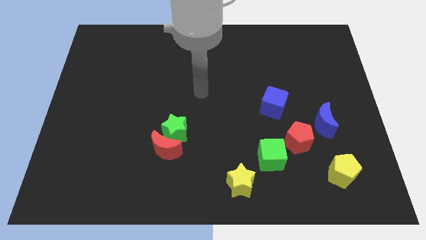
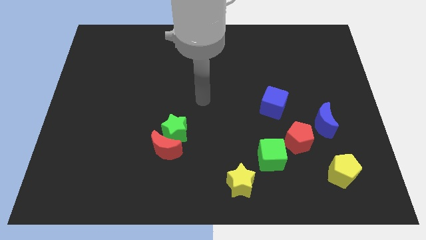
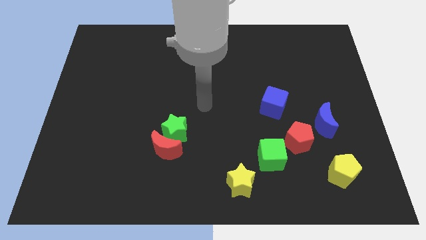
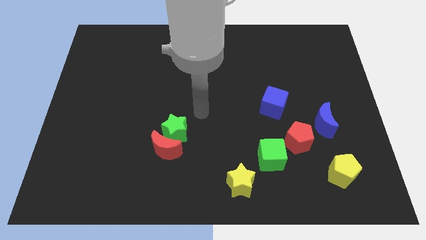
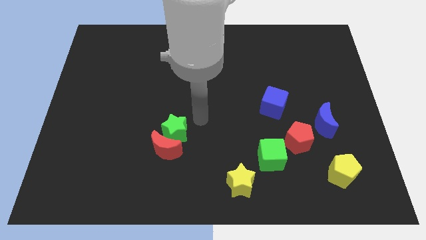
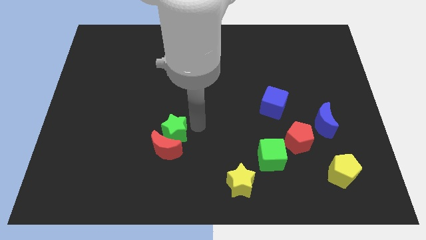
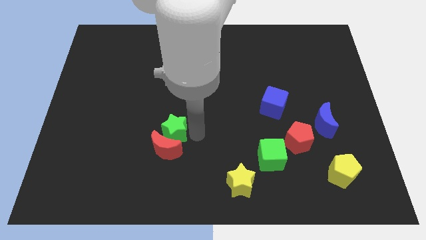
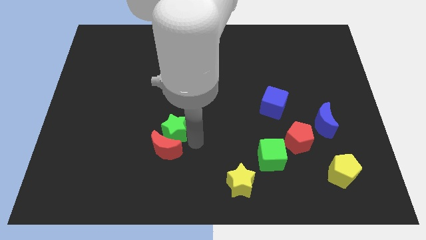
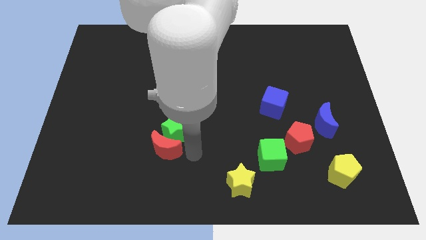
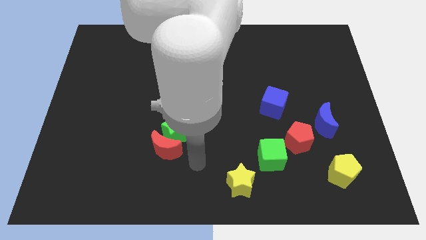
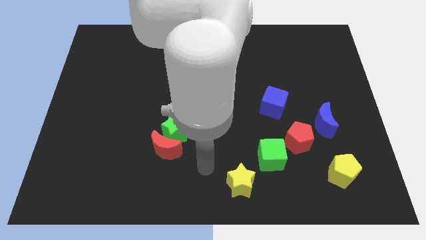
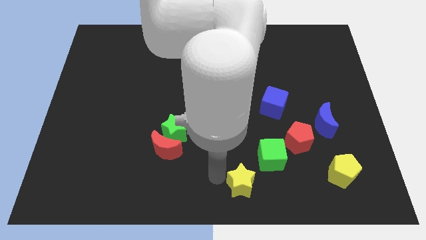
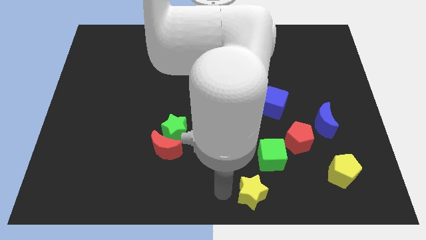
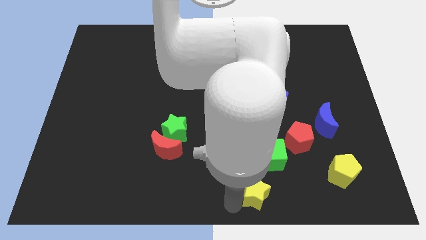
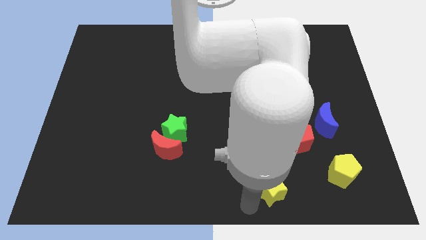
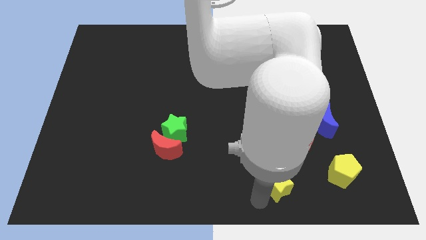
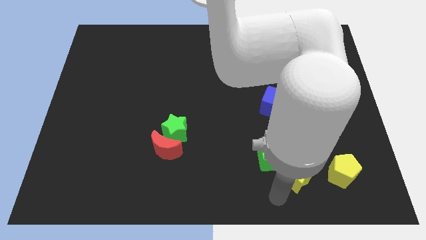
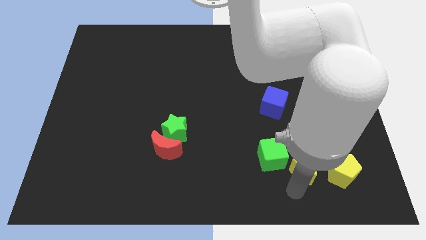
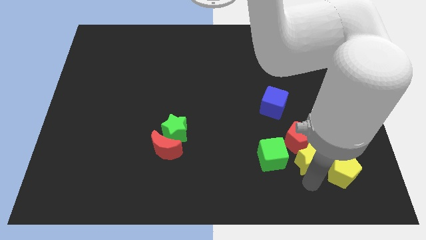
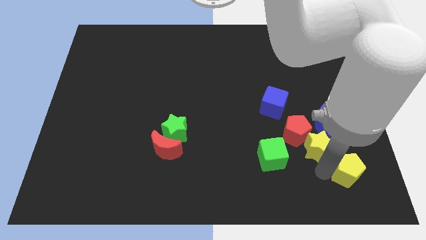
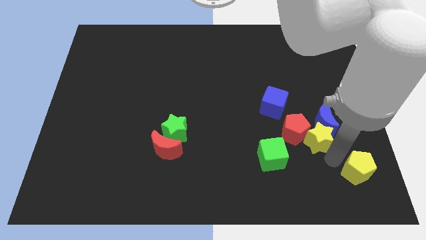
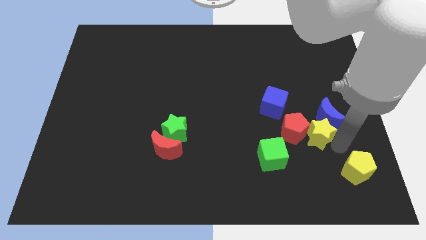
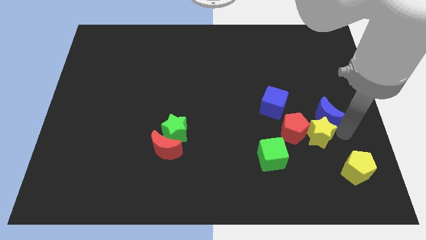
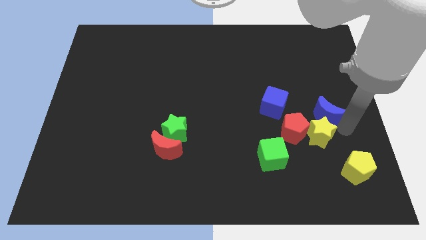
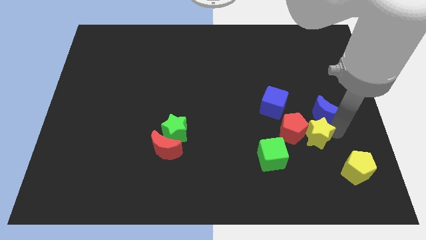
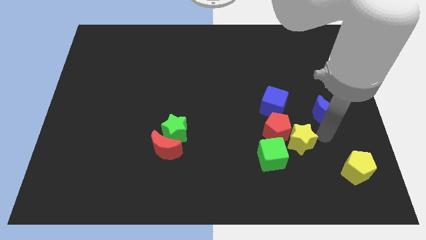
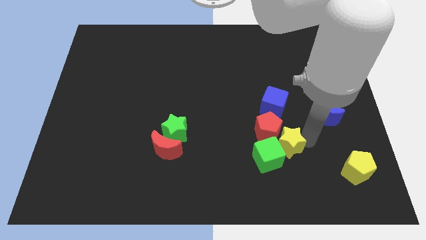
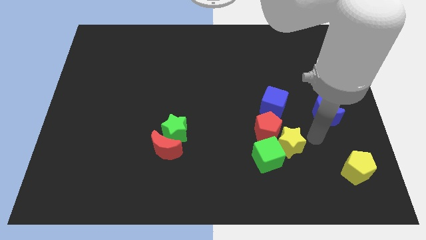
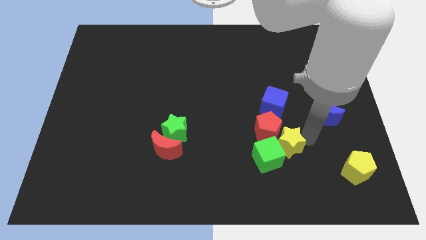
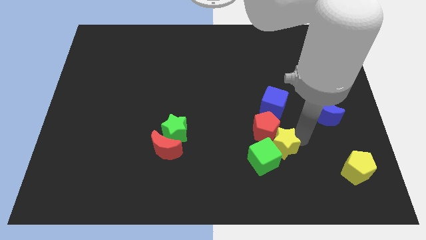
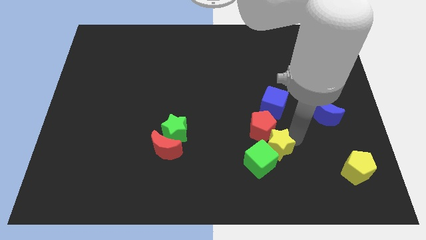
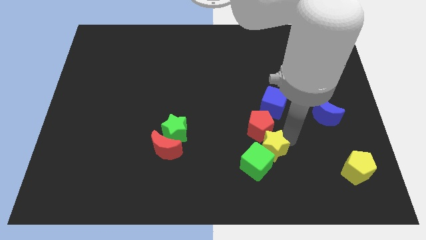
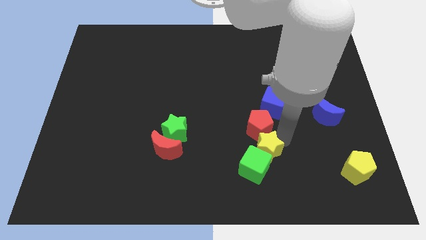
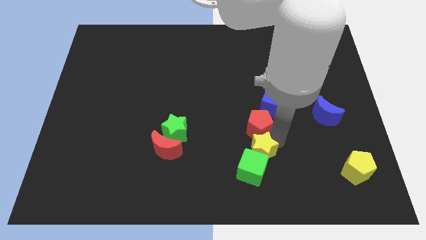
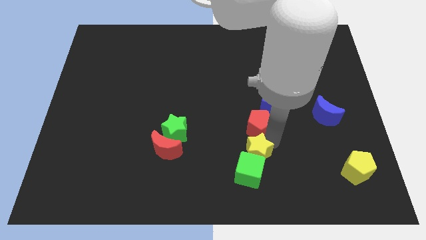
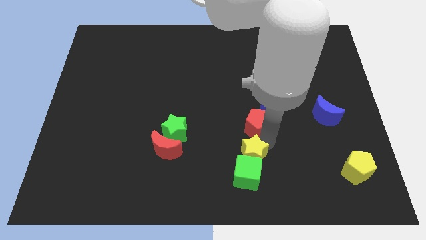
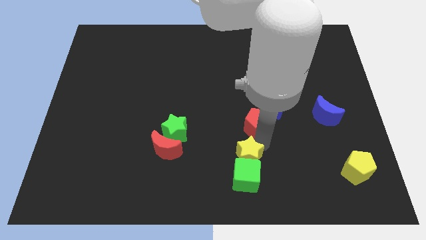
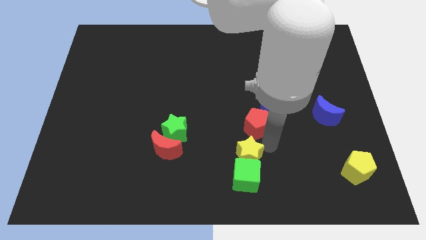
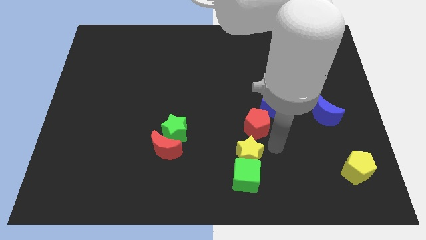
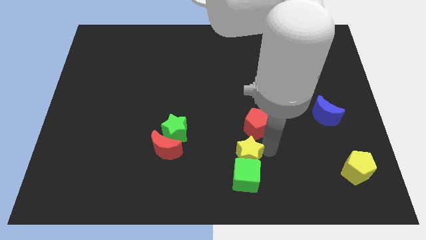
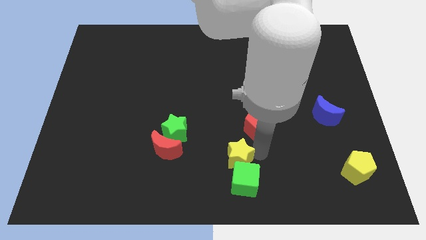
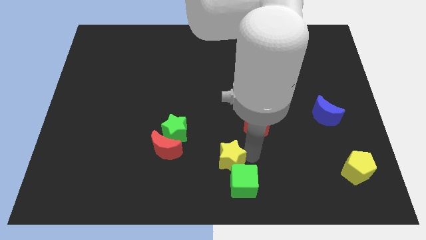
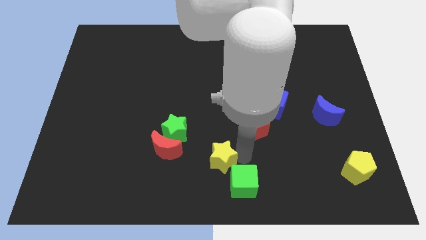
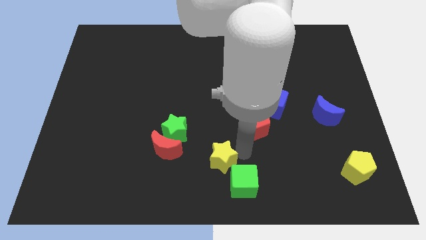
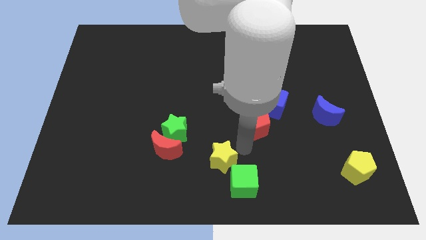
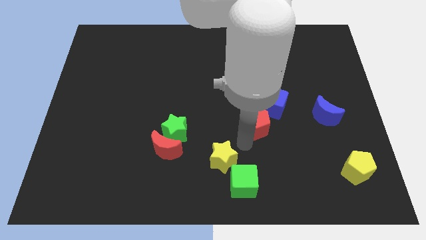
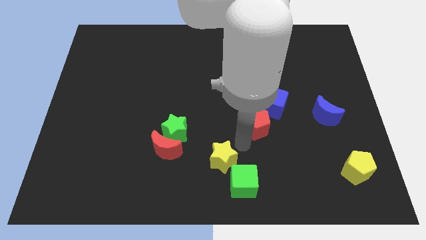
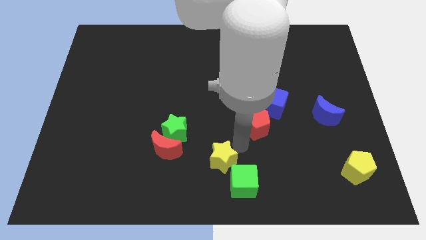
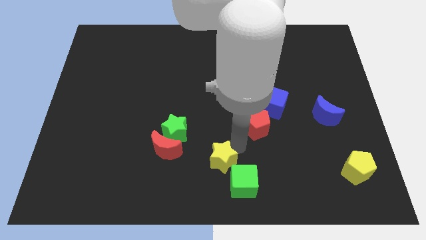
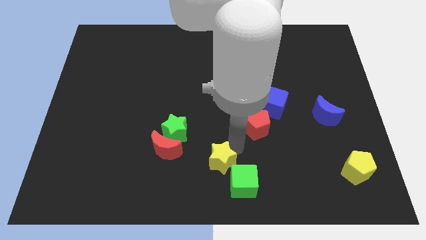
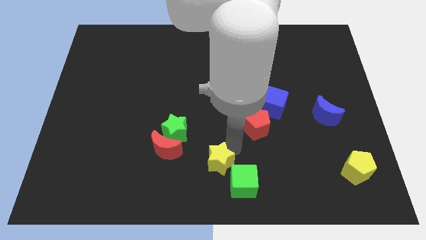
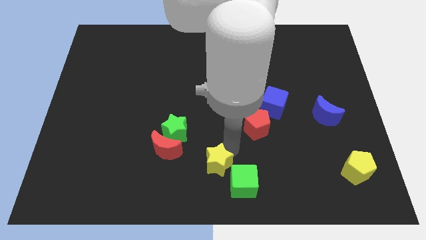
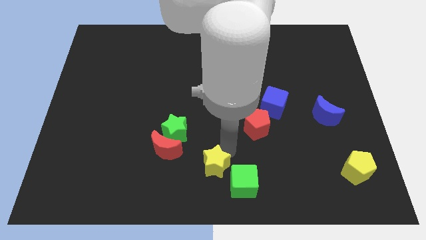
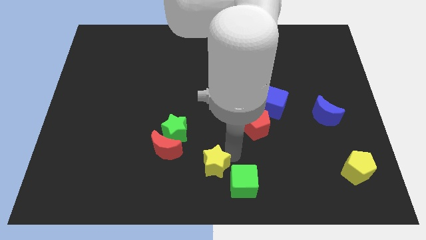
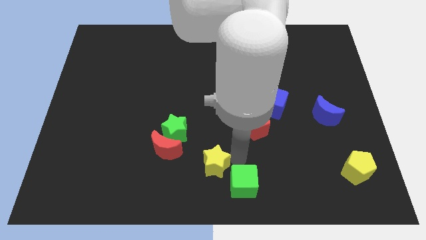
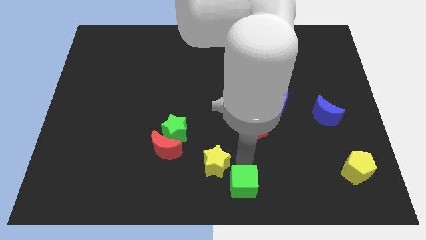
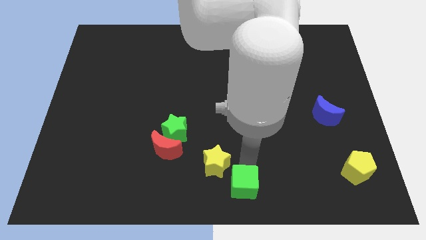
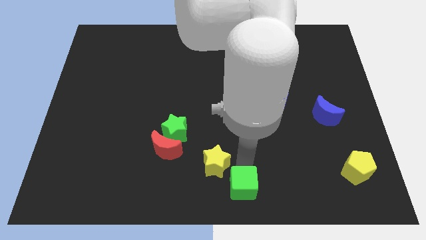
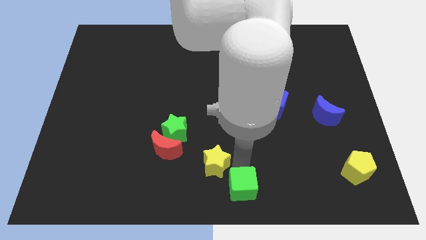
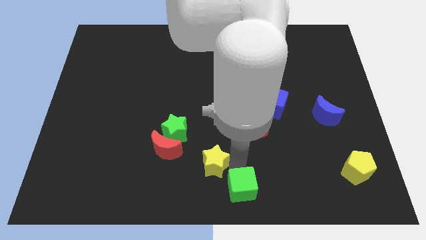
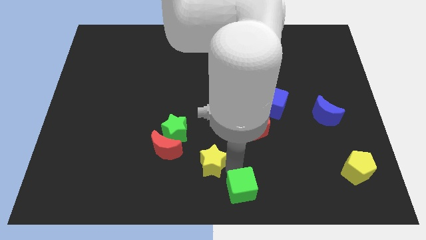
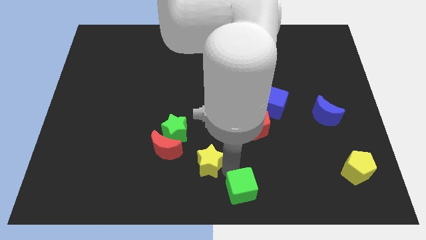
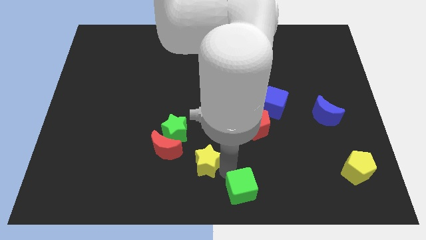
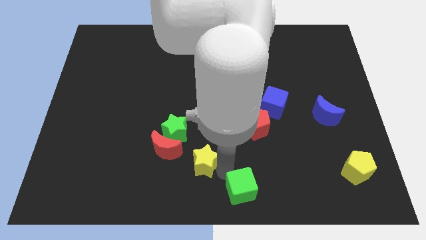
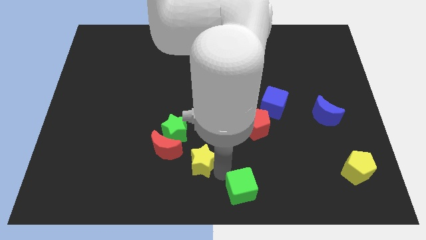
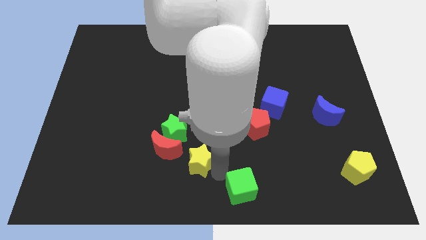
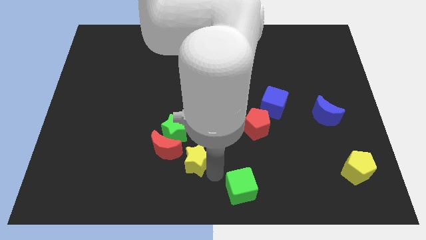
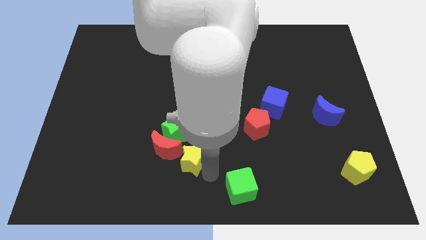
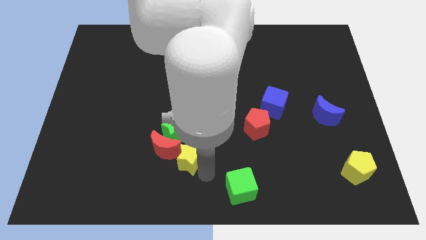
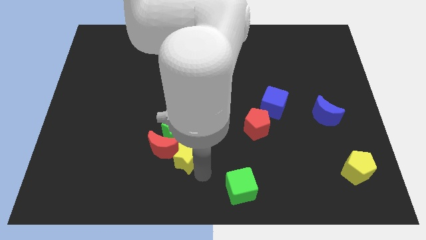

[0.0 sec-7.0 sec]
slide the yellow star to the red moon
